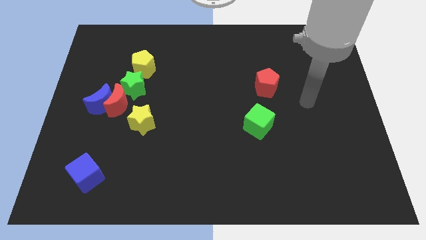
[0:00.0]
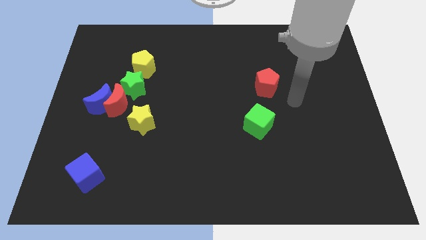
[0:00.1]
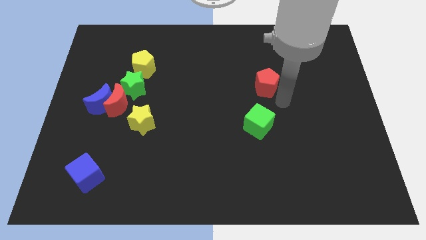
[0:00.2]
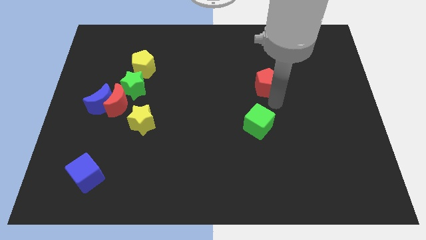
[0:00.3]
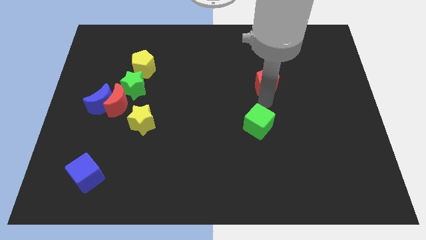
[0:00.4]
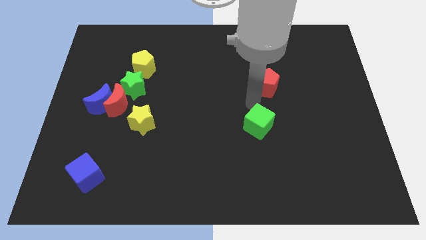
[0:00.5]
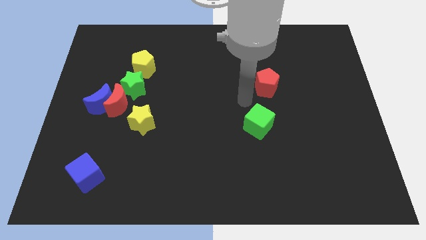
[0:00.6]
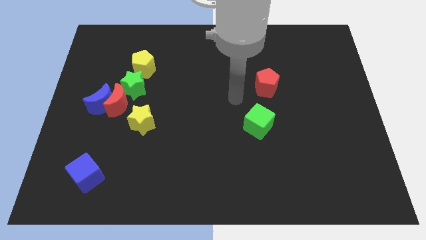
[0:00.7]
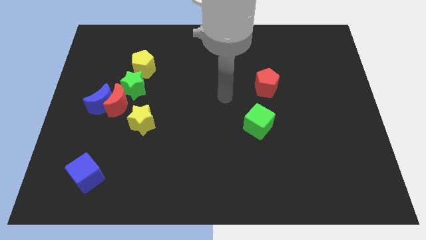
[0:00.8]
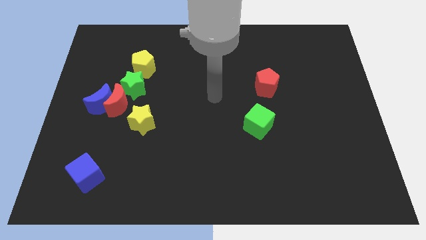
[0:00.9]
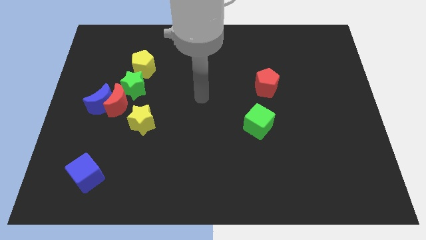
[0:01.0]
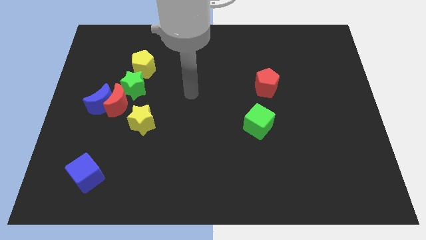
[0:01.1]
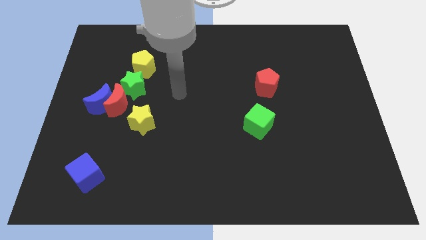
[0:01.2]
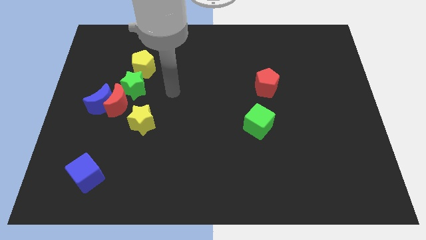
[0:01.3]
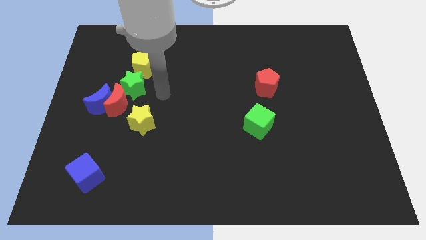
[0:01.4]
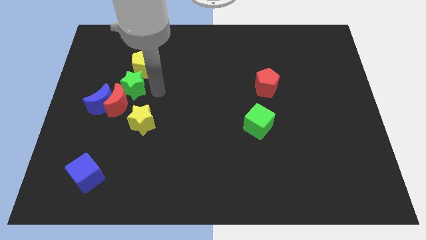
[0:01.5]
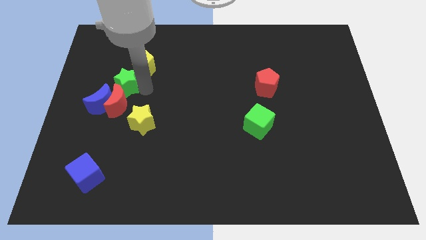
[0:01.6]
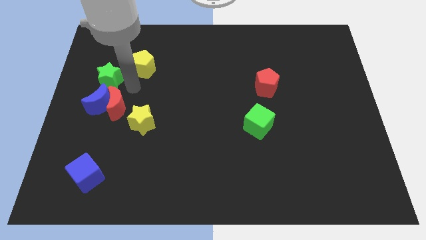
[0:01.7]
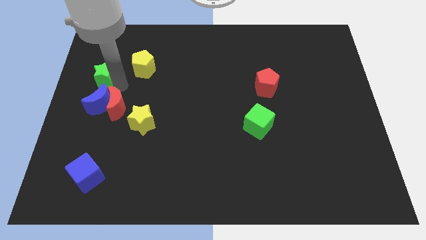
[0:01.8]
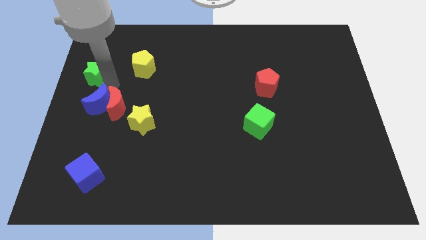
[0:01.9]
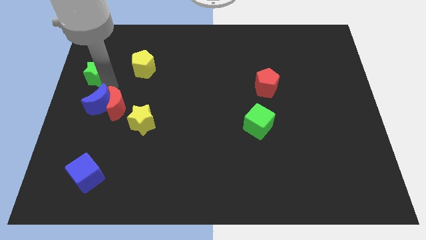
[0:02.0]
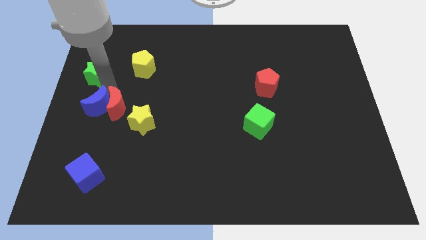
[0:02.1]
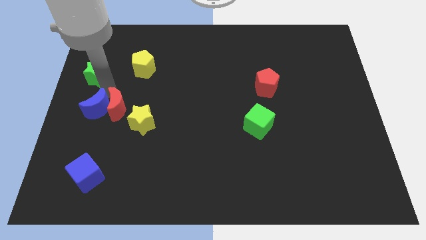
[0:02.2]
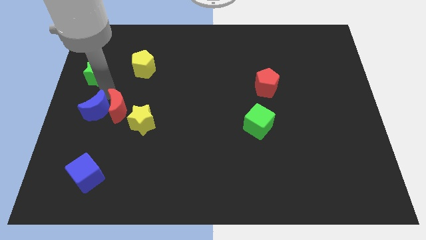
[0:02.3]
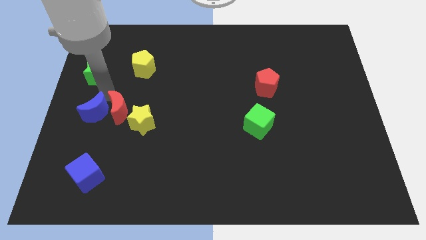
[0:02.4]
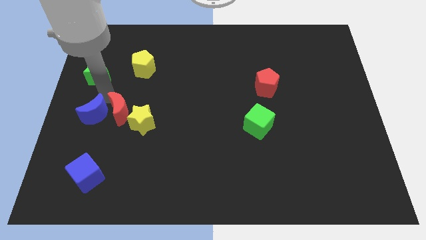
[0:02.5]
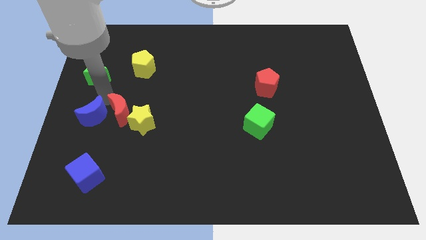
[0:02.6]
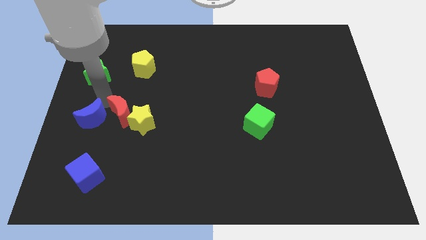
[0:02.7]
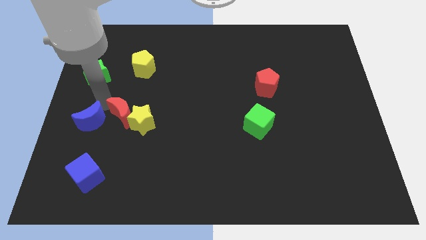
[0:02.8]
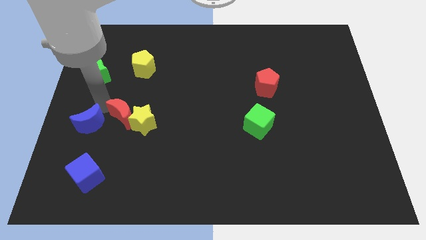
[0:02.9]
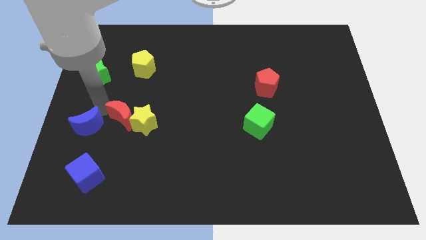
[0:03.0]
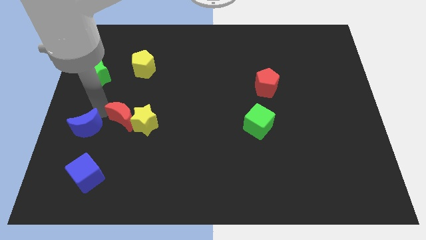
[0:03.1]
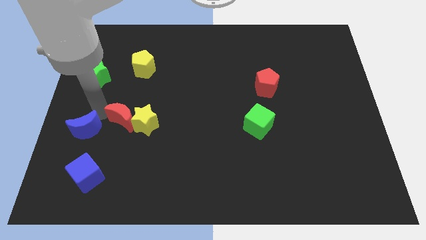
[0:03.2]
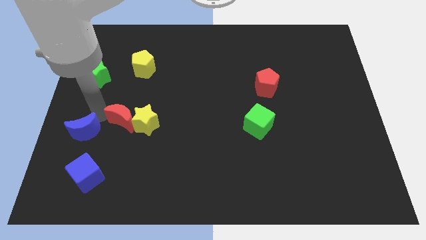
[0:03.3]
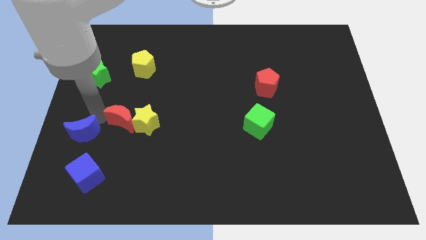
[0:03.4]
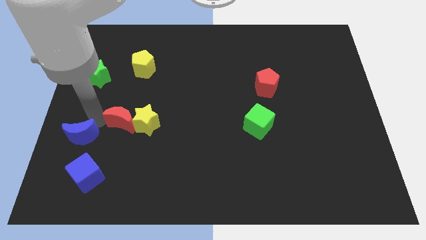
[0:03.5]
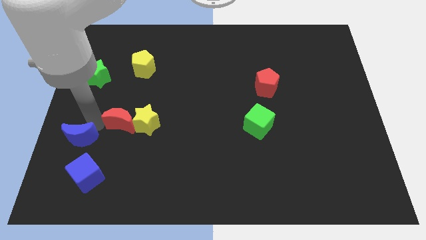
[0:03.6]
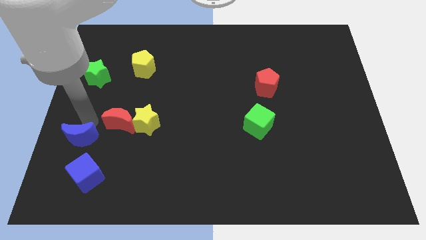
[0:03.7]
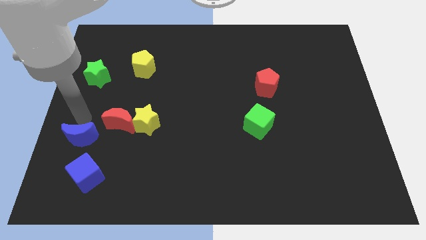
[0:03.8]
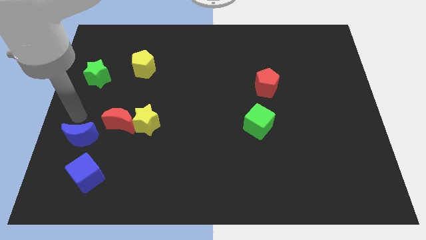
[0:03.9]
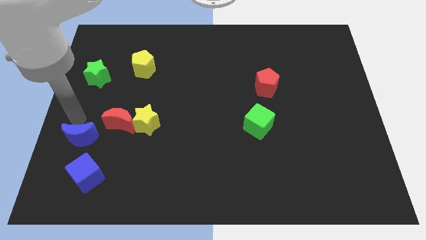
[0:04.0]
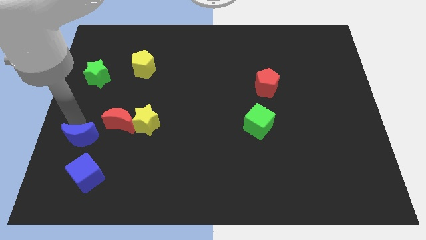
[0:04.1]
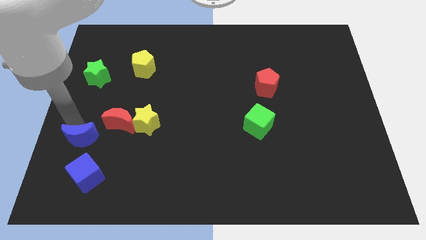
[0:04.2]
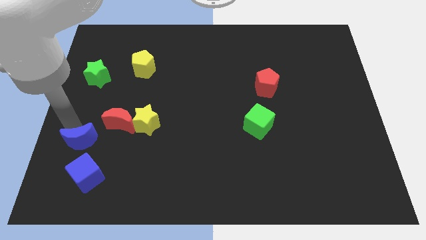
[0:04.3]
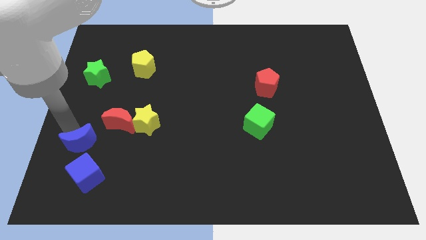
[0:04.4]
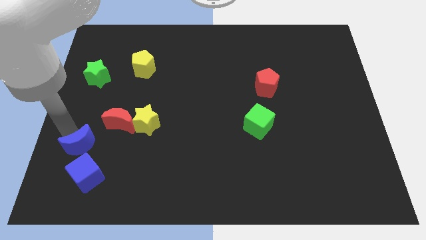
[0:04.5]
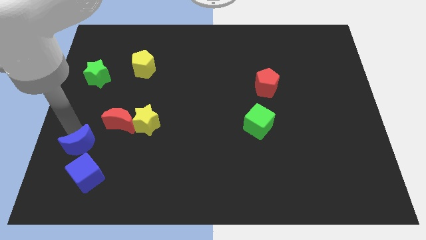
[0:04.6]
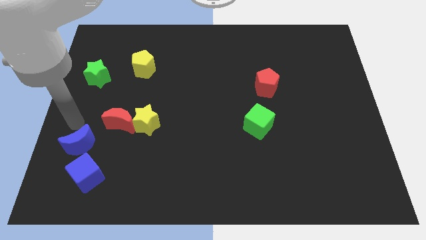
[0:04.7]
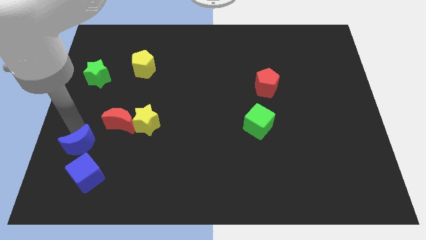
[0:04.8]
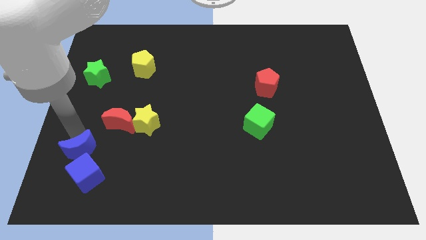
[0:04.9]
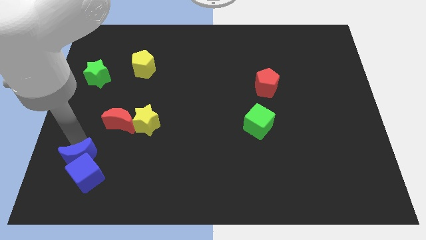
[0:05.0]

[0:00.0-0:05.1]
move the blue moon towards the blue cube

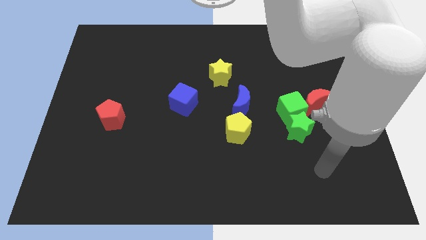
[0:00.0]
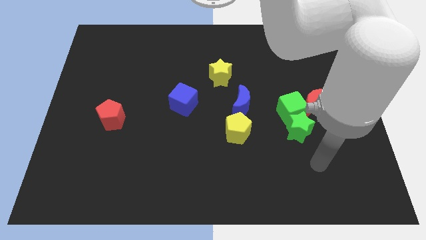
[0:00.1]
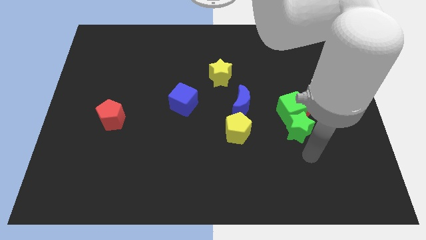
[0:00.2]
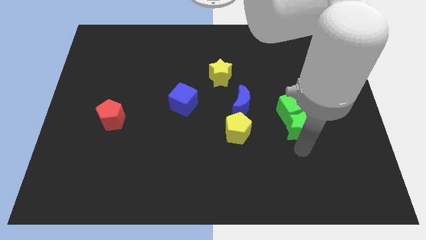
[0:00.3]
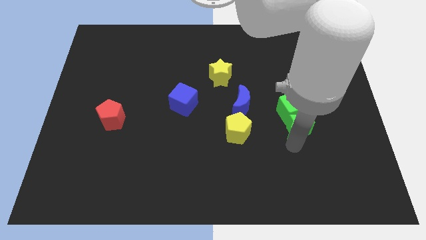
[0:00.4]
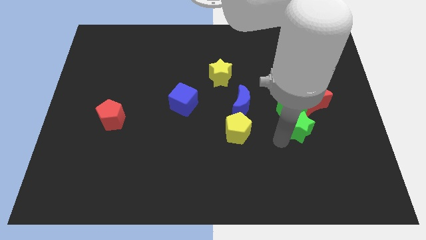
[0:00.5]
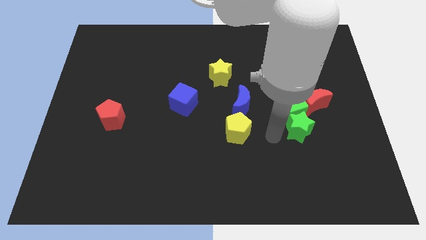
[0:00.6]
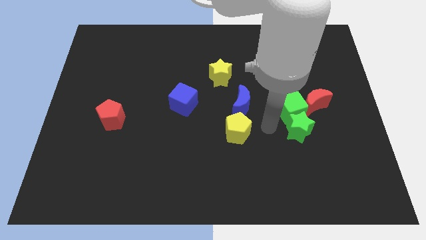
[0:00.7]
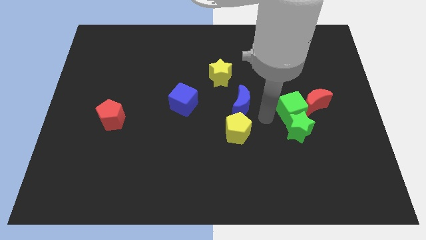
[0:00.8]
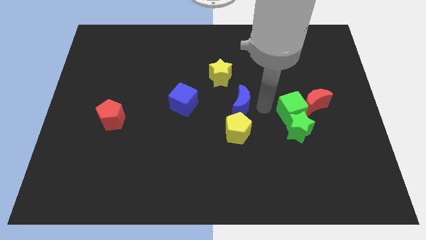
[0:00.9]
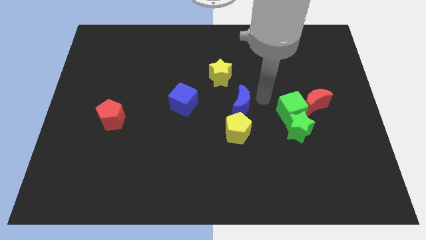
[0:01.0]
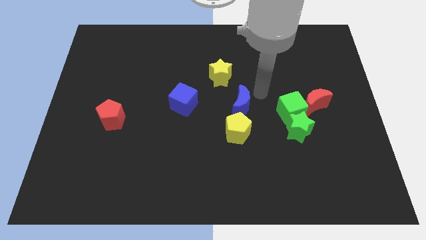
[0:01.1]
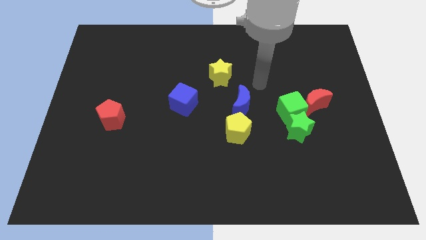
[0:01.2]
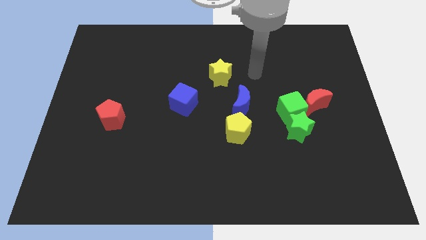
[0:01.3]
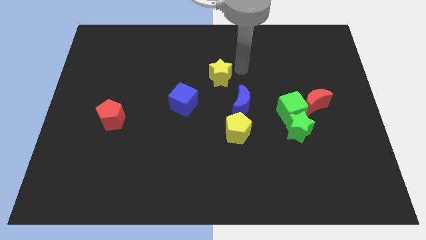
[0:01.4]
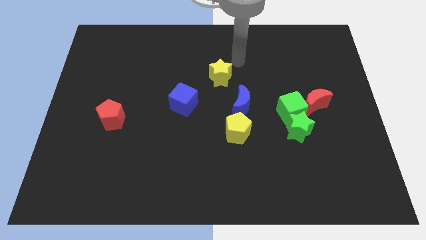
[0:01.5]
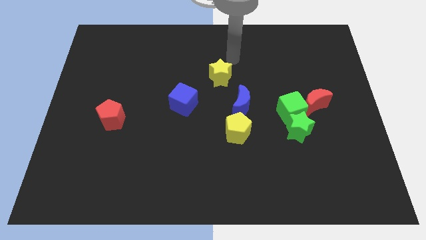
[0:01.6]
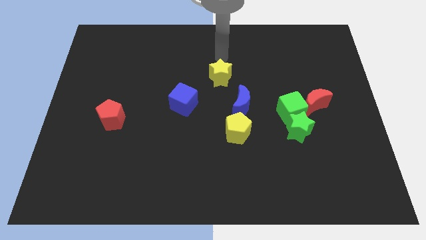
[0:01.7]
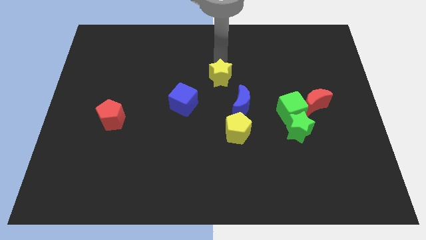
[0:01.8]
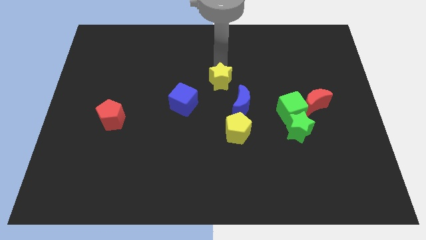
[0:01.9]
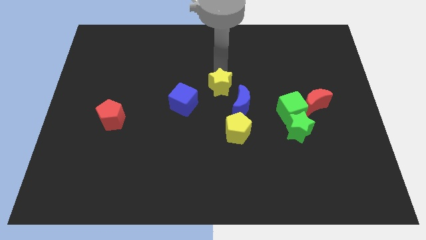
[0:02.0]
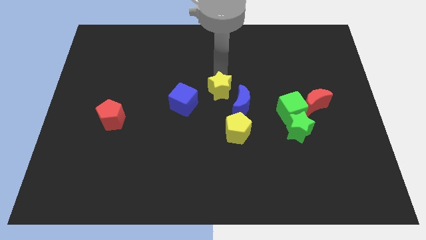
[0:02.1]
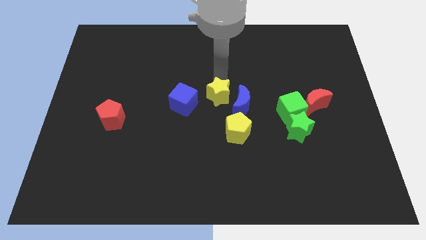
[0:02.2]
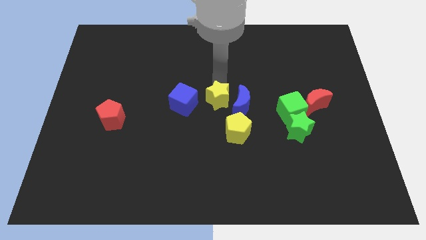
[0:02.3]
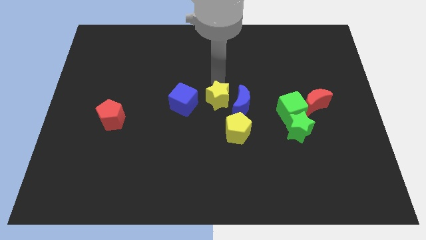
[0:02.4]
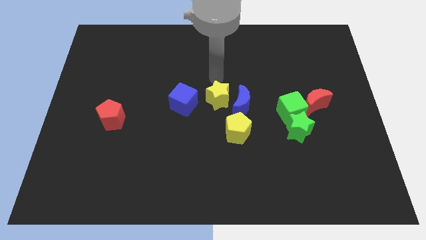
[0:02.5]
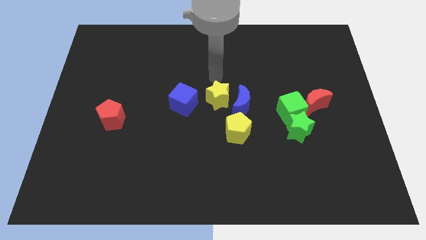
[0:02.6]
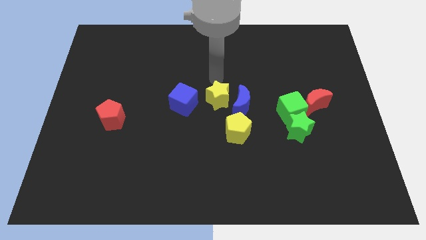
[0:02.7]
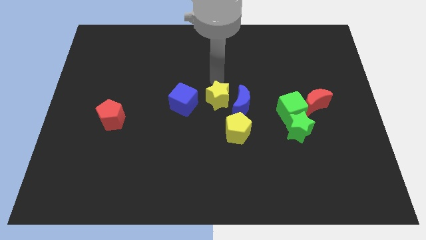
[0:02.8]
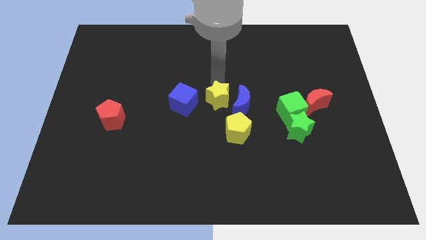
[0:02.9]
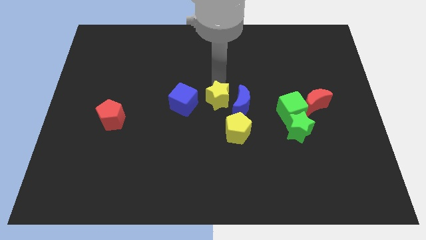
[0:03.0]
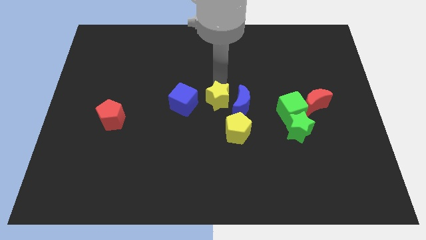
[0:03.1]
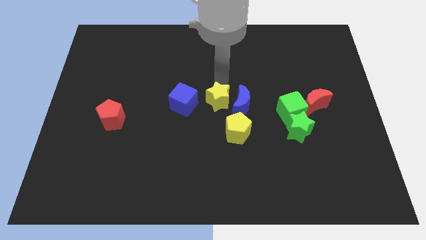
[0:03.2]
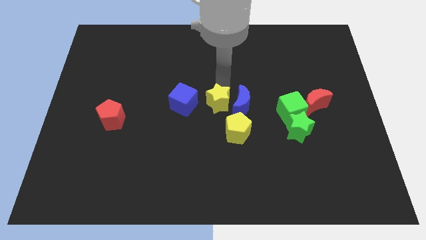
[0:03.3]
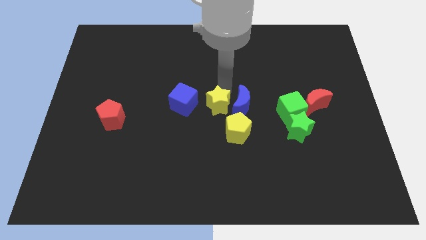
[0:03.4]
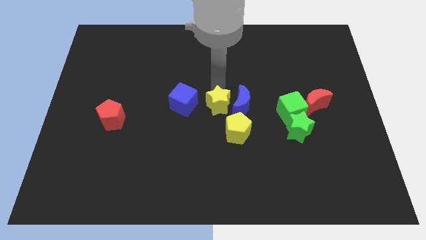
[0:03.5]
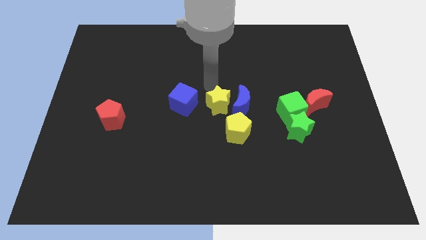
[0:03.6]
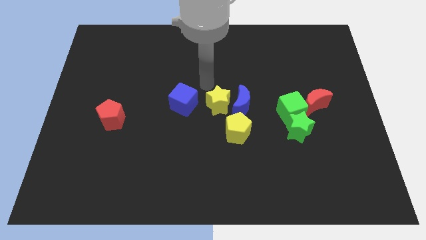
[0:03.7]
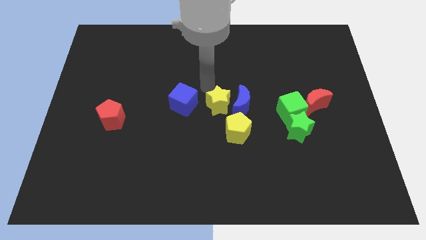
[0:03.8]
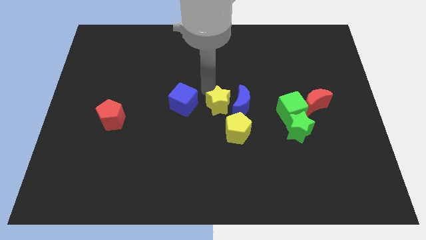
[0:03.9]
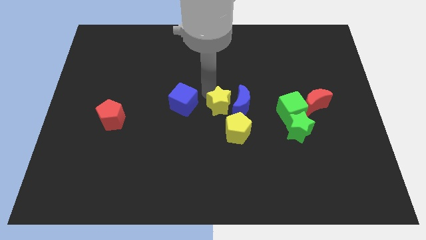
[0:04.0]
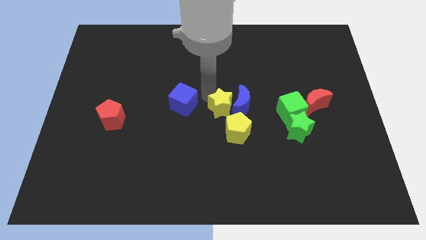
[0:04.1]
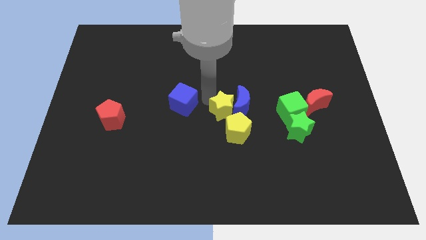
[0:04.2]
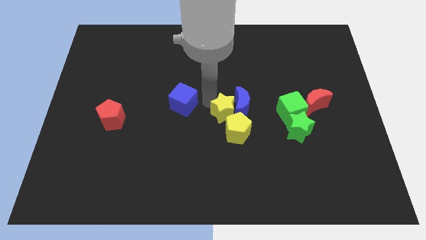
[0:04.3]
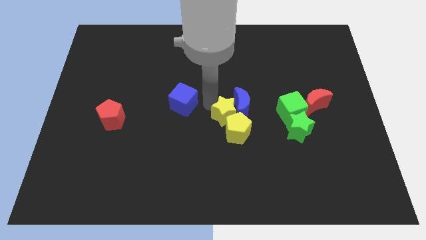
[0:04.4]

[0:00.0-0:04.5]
move the yellow star next to the yellow pentagon
